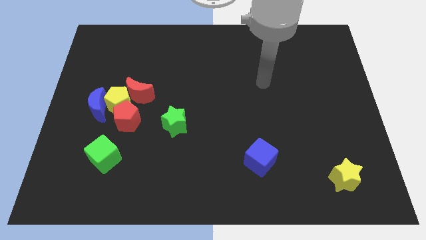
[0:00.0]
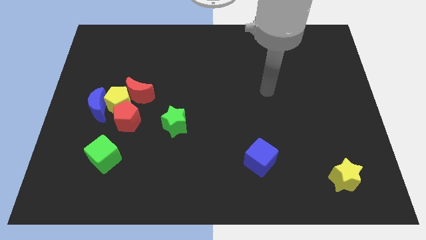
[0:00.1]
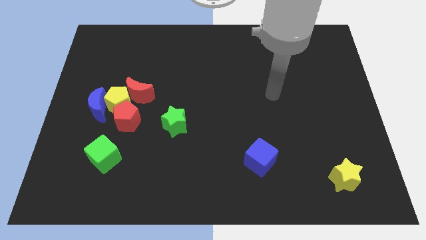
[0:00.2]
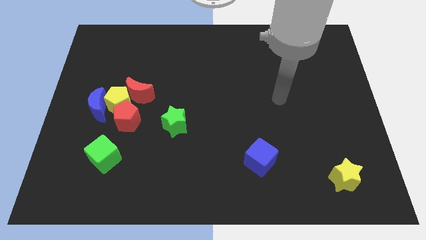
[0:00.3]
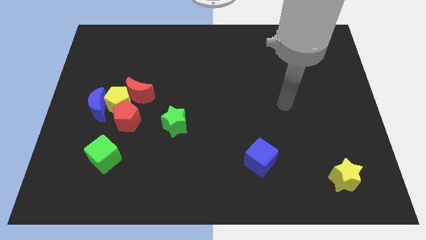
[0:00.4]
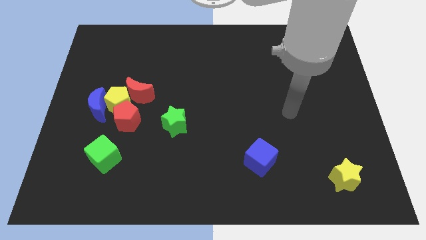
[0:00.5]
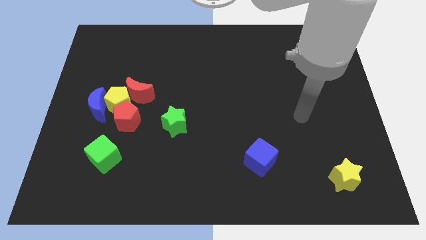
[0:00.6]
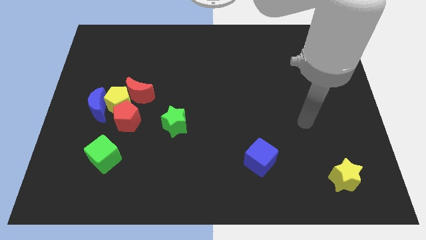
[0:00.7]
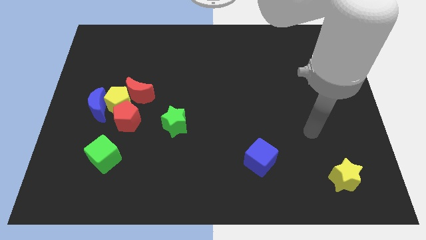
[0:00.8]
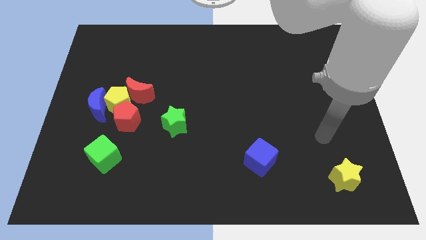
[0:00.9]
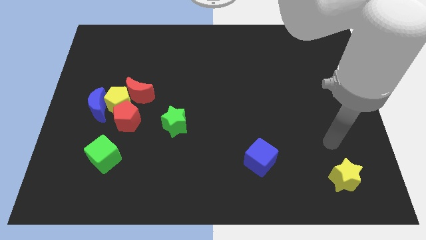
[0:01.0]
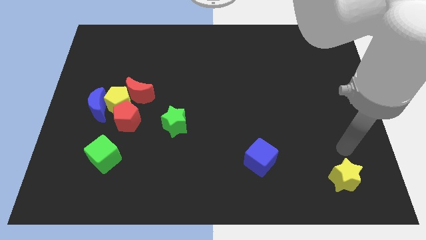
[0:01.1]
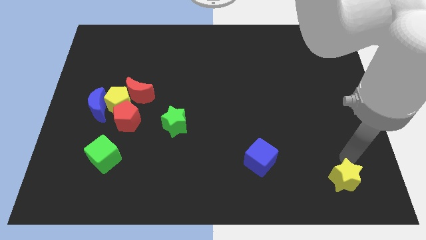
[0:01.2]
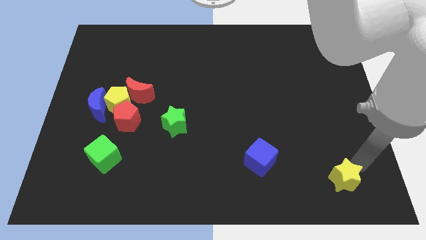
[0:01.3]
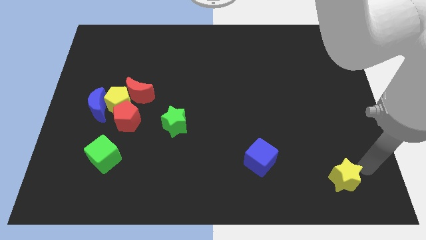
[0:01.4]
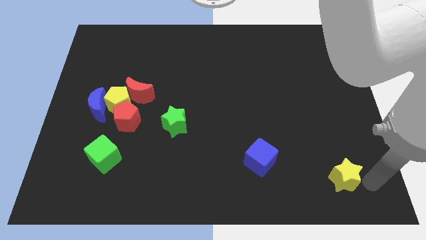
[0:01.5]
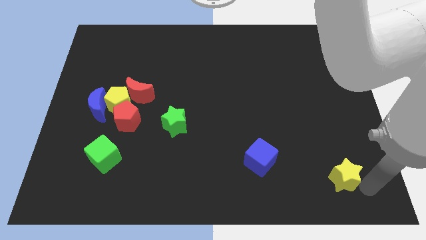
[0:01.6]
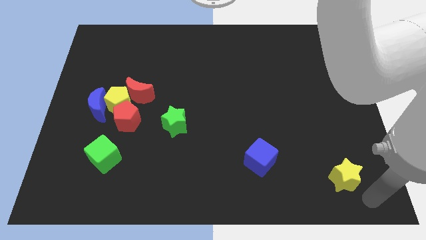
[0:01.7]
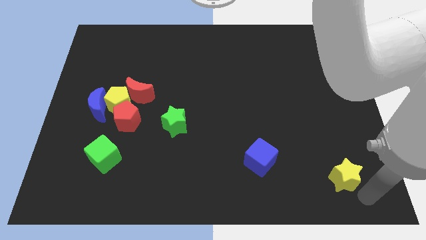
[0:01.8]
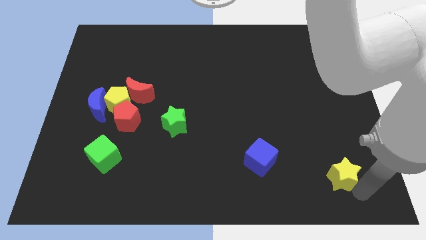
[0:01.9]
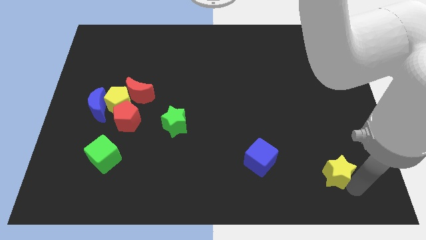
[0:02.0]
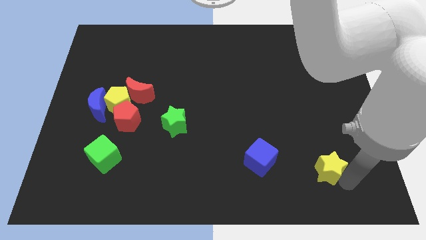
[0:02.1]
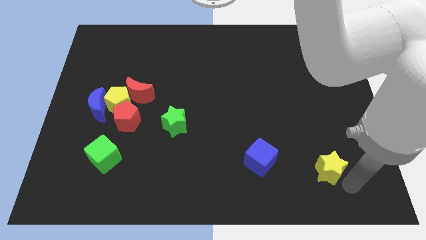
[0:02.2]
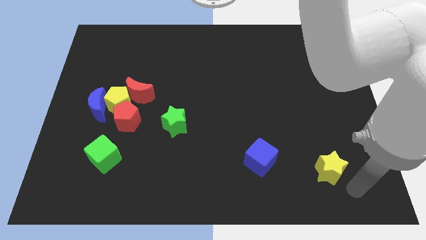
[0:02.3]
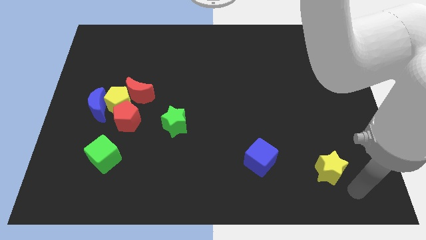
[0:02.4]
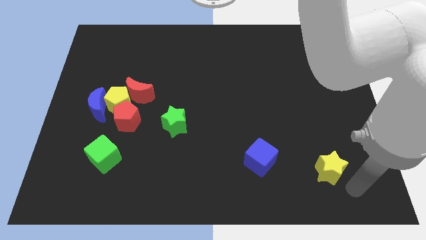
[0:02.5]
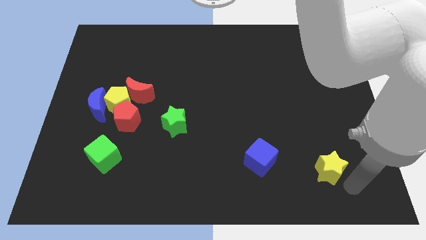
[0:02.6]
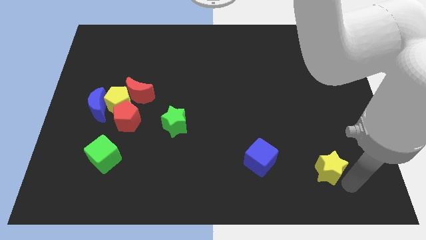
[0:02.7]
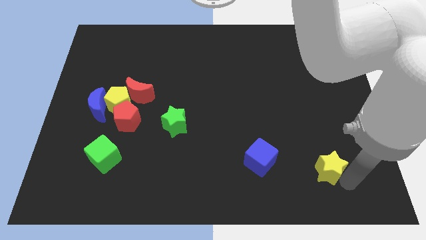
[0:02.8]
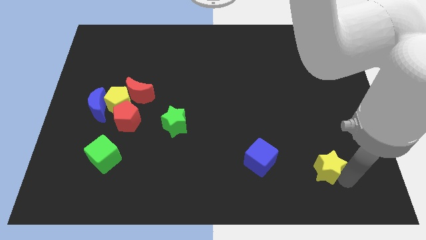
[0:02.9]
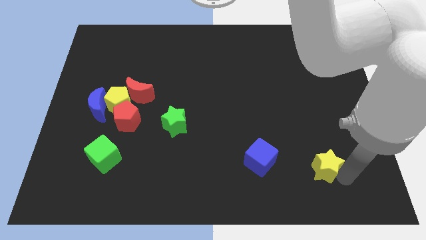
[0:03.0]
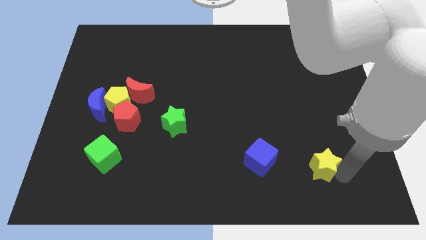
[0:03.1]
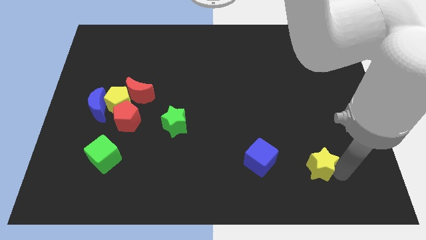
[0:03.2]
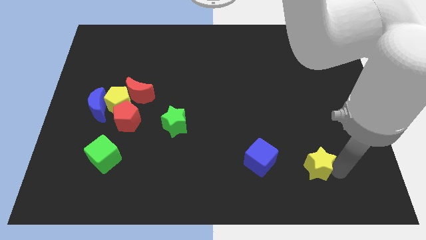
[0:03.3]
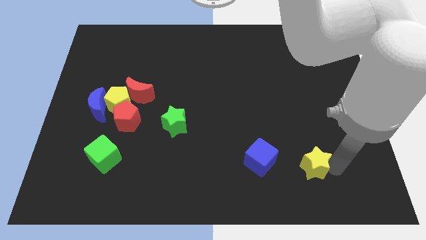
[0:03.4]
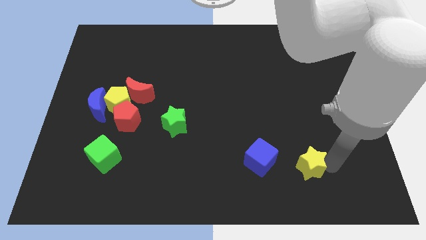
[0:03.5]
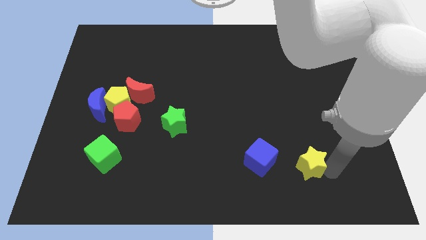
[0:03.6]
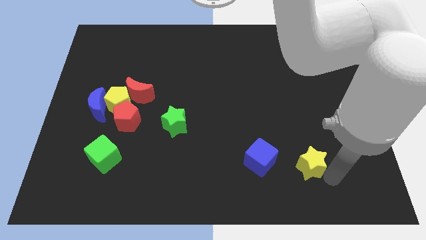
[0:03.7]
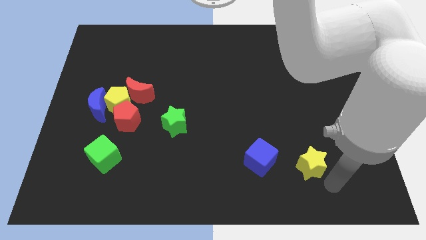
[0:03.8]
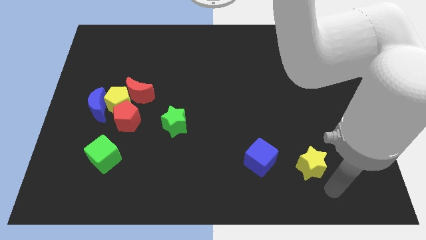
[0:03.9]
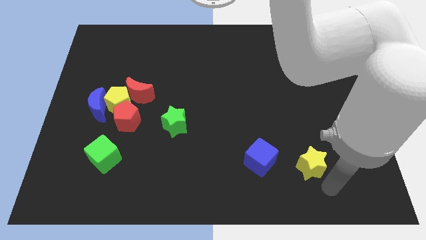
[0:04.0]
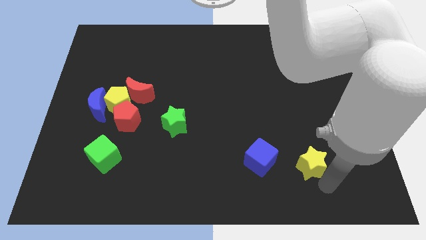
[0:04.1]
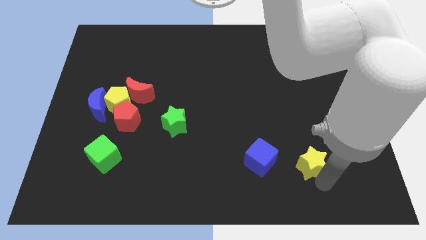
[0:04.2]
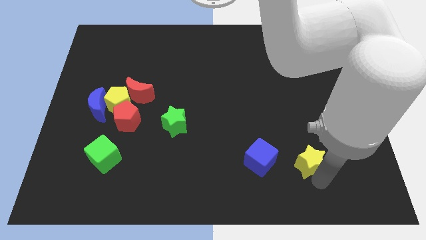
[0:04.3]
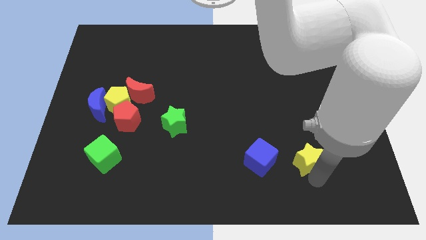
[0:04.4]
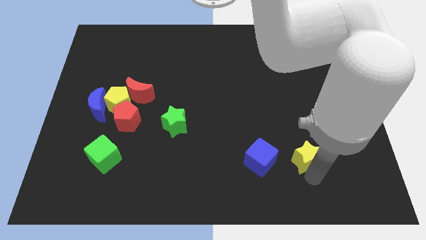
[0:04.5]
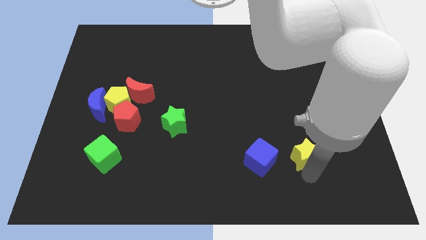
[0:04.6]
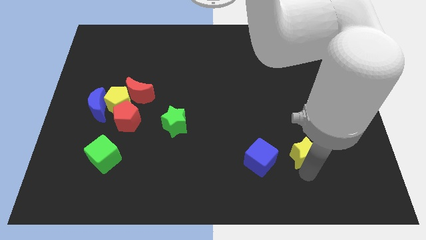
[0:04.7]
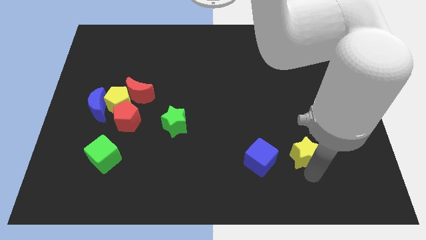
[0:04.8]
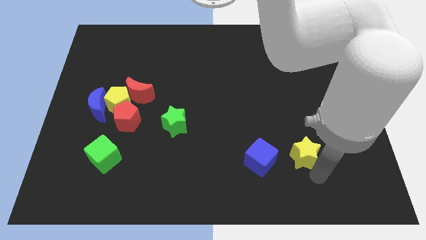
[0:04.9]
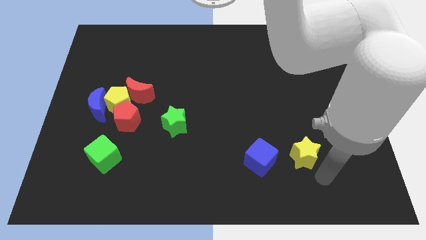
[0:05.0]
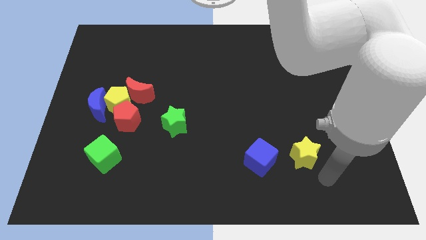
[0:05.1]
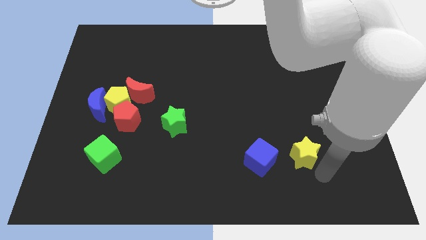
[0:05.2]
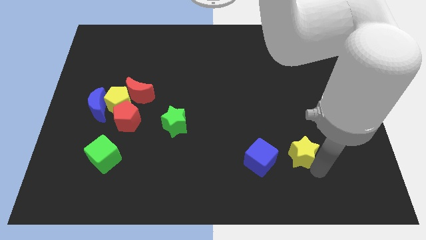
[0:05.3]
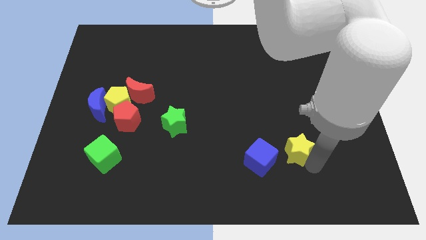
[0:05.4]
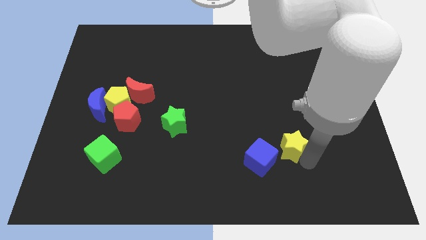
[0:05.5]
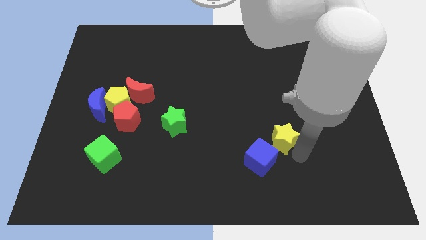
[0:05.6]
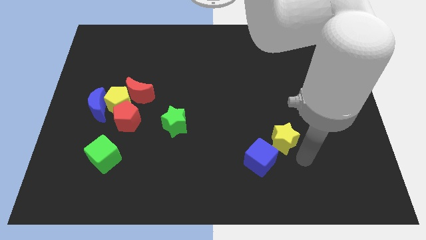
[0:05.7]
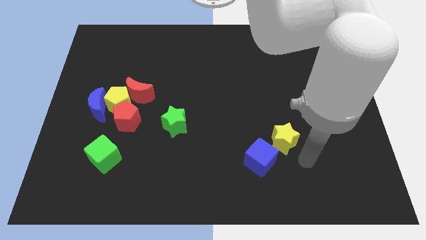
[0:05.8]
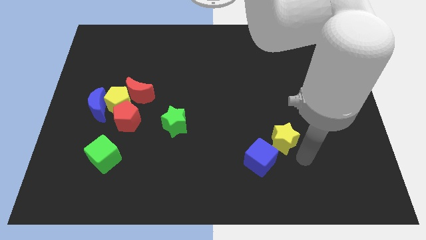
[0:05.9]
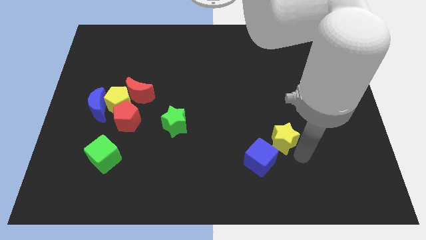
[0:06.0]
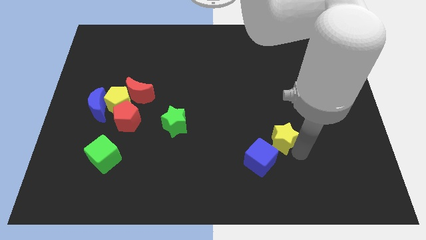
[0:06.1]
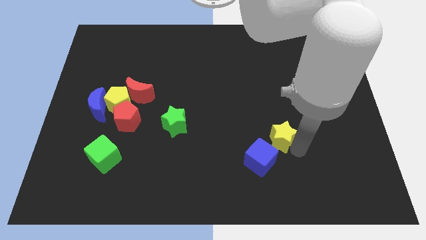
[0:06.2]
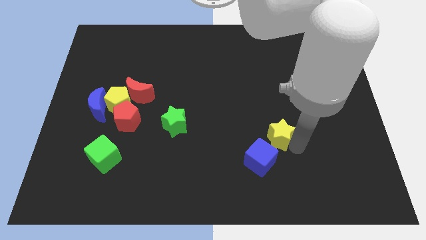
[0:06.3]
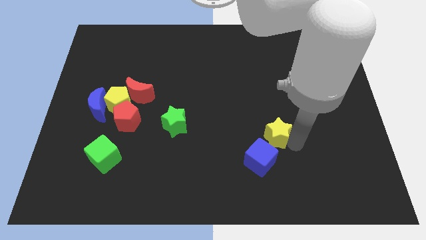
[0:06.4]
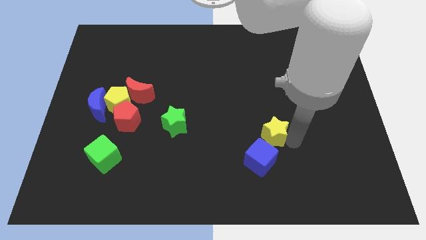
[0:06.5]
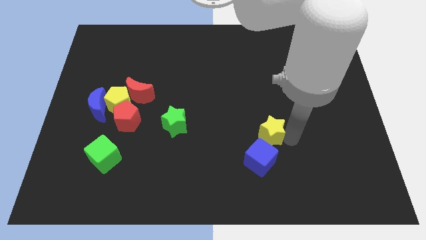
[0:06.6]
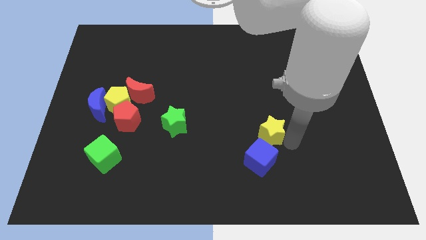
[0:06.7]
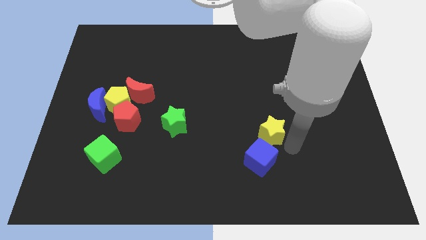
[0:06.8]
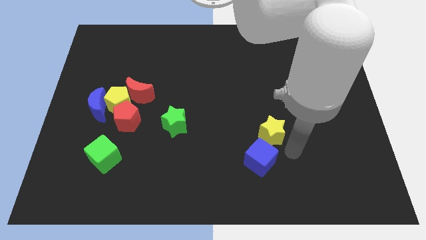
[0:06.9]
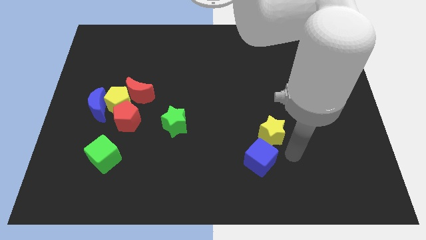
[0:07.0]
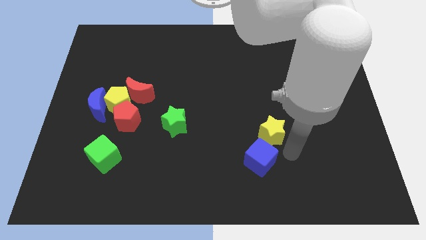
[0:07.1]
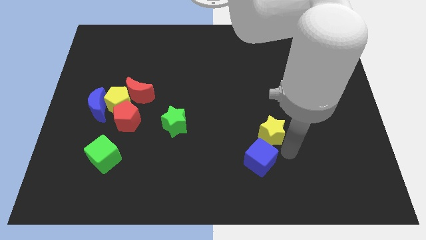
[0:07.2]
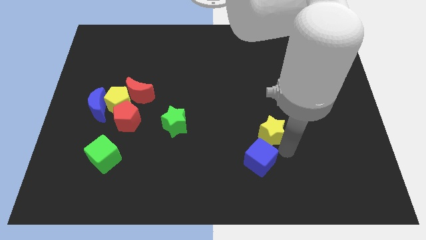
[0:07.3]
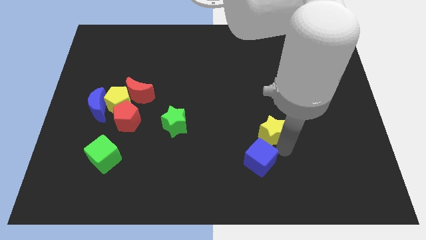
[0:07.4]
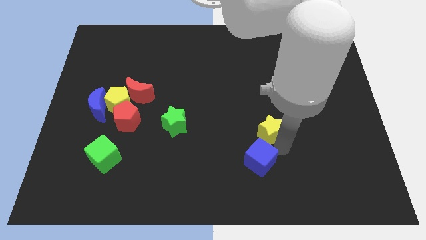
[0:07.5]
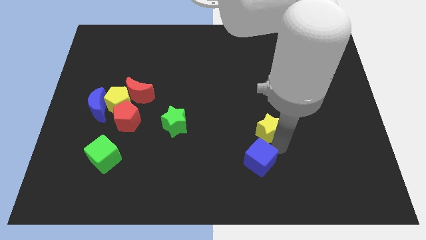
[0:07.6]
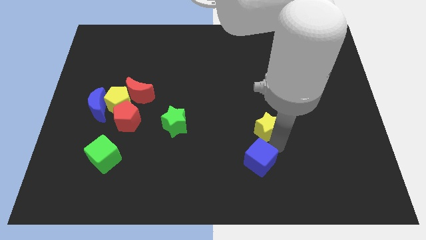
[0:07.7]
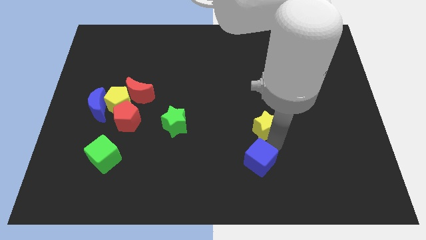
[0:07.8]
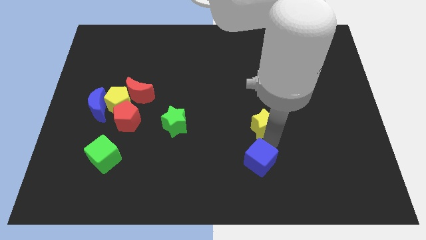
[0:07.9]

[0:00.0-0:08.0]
slide the yellow star upwards and then to the left
